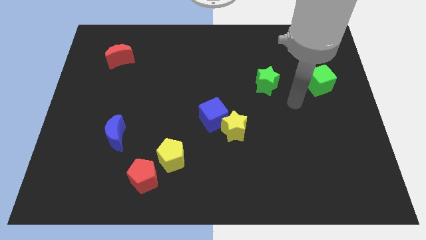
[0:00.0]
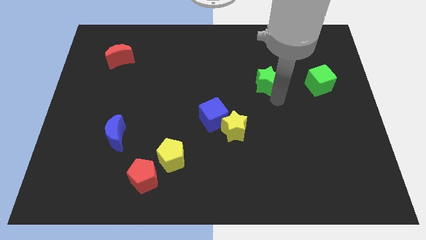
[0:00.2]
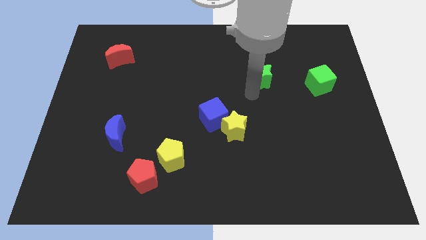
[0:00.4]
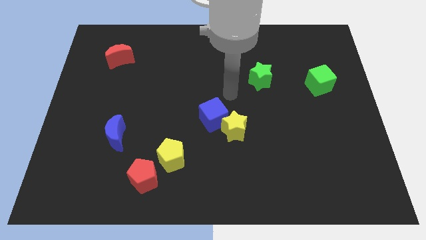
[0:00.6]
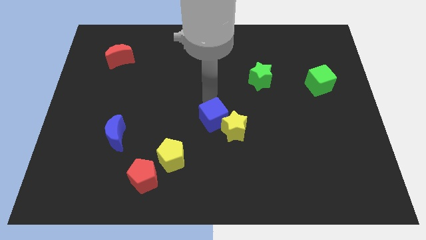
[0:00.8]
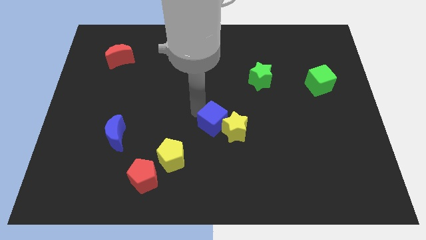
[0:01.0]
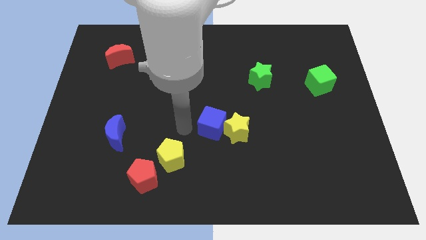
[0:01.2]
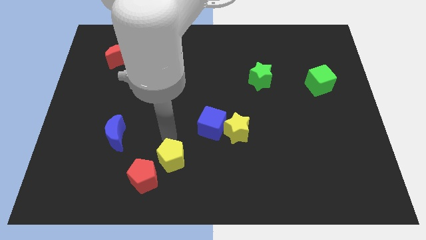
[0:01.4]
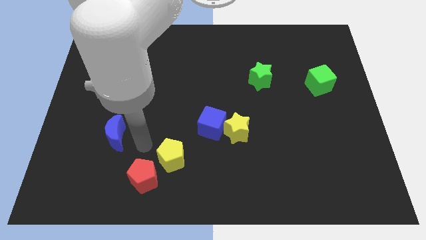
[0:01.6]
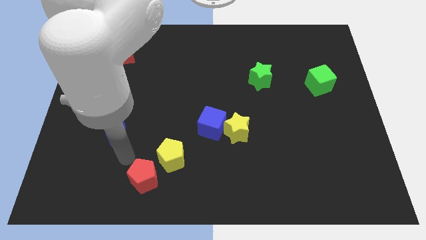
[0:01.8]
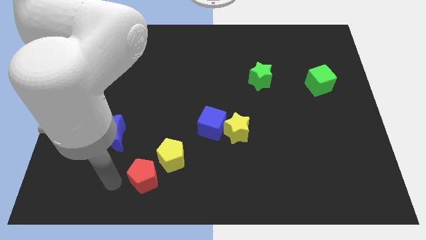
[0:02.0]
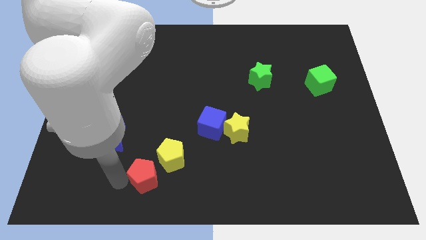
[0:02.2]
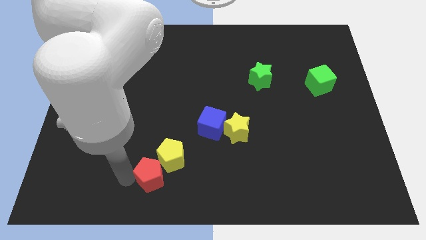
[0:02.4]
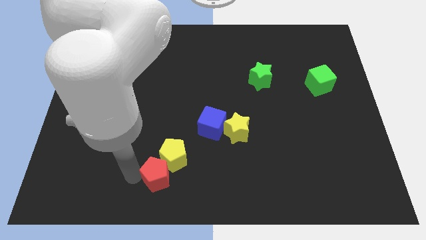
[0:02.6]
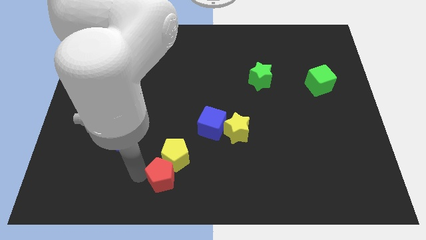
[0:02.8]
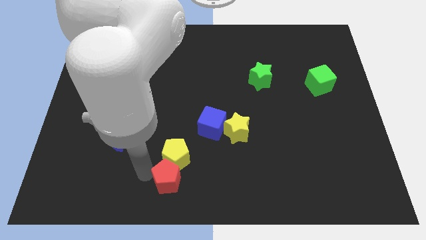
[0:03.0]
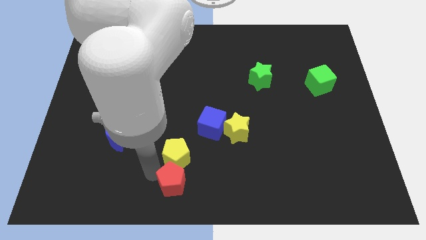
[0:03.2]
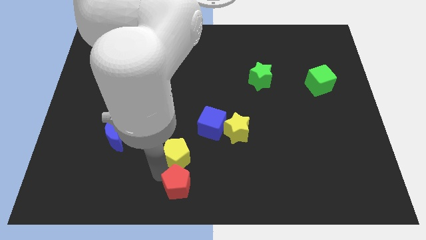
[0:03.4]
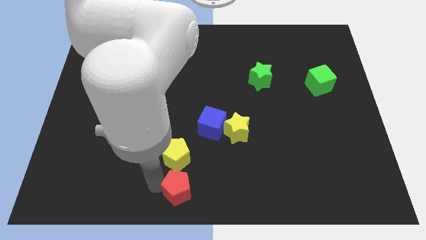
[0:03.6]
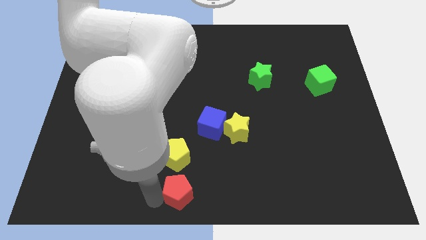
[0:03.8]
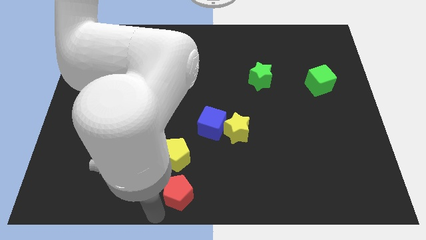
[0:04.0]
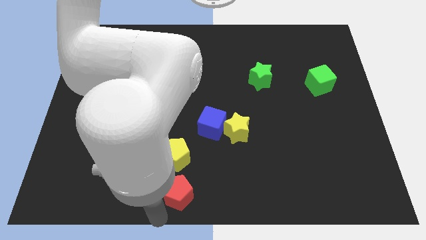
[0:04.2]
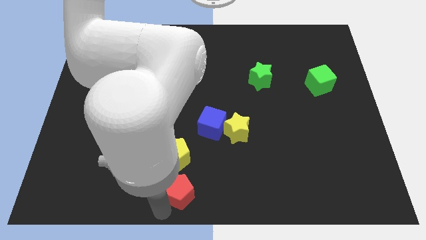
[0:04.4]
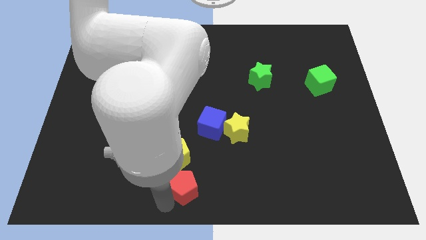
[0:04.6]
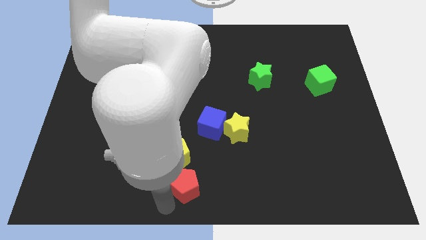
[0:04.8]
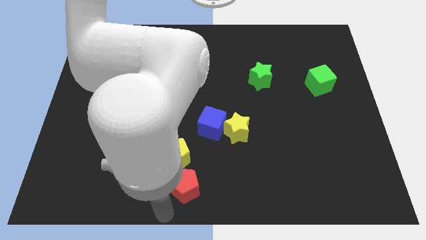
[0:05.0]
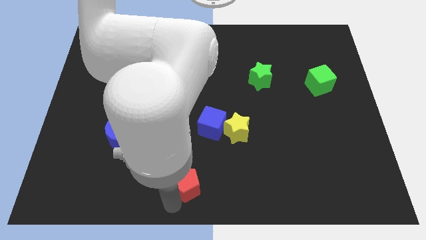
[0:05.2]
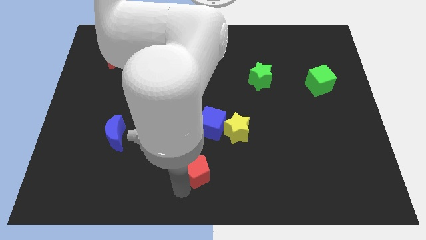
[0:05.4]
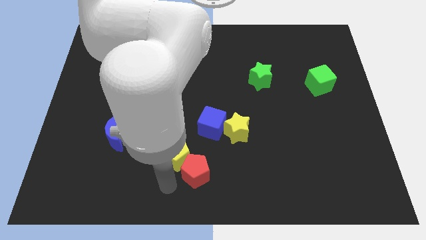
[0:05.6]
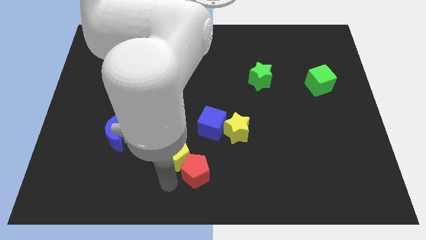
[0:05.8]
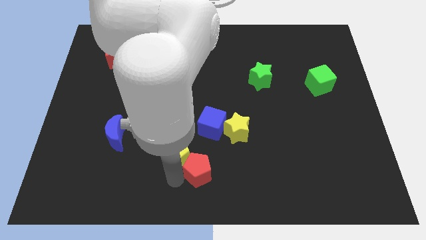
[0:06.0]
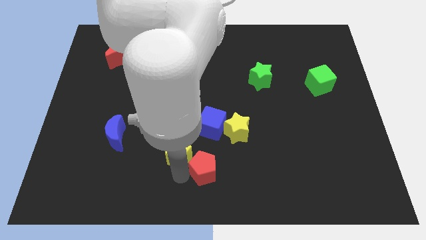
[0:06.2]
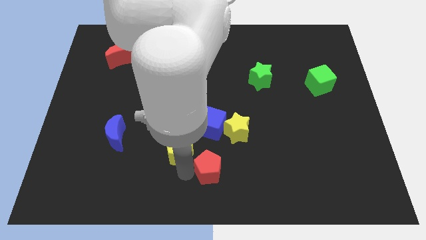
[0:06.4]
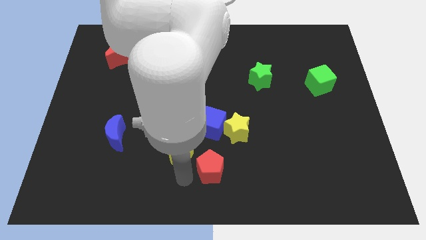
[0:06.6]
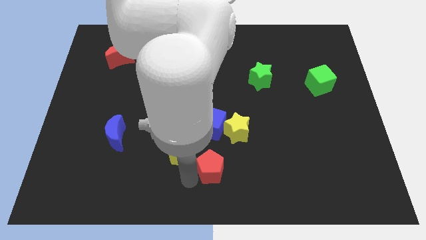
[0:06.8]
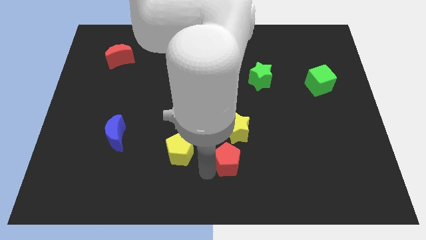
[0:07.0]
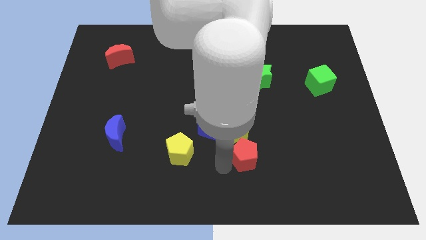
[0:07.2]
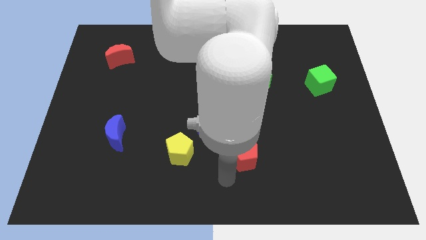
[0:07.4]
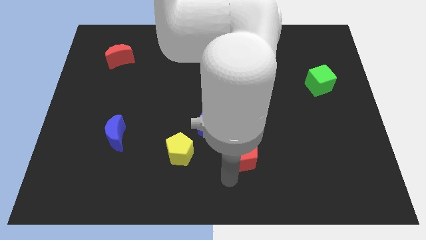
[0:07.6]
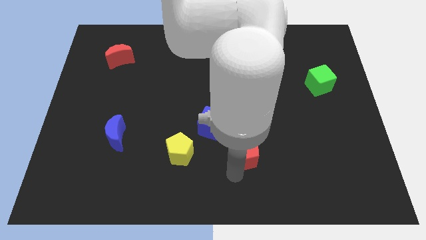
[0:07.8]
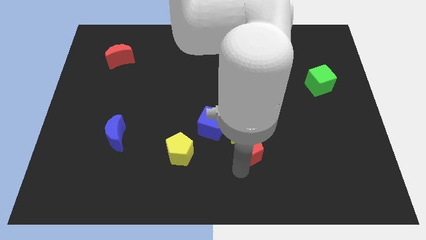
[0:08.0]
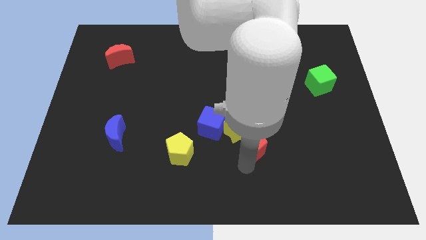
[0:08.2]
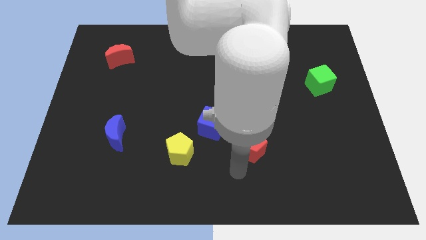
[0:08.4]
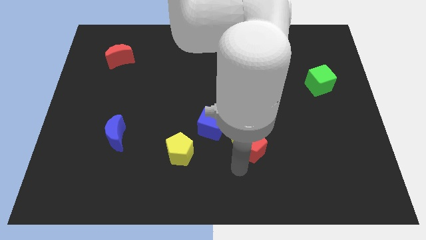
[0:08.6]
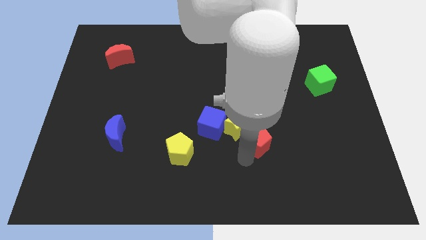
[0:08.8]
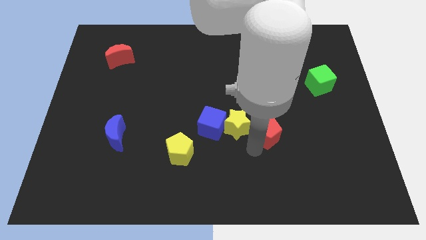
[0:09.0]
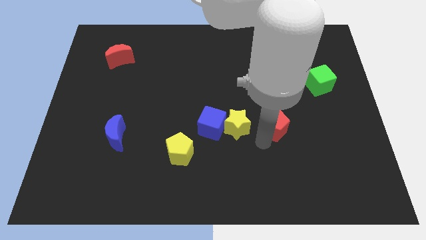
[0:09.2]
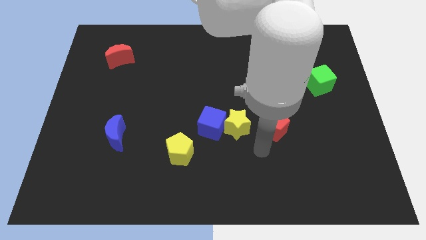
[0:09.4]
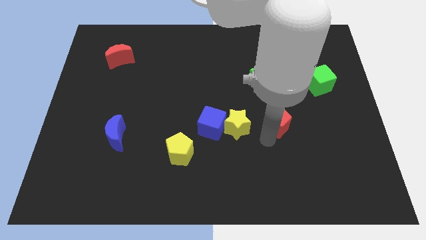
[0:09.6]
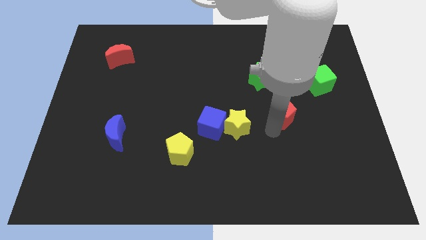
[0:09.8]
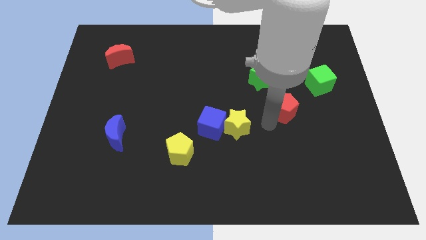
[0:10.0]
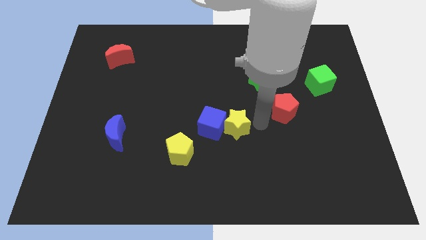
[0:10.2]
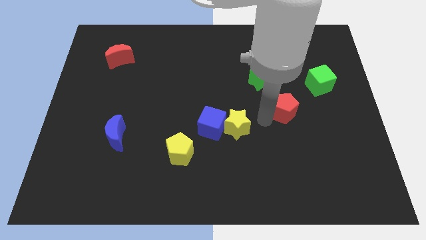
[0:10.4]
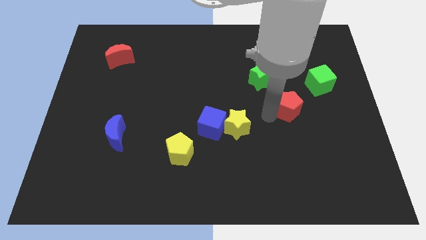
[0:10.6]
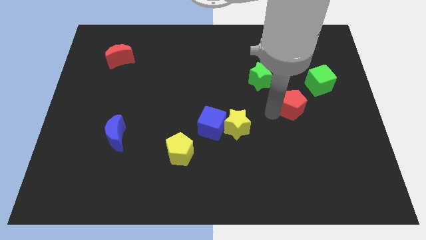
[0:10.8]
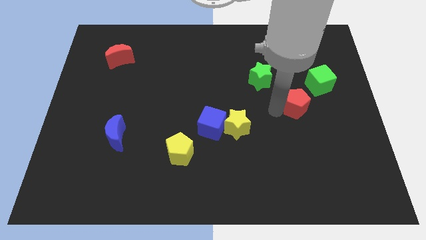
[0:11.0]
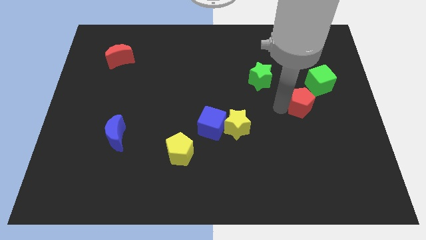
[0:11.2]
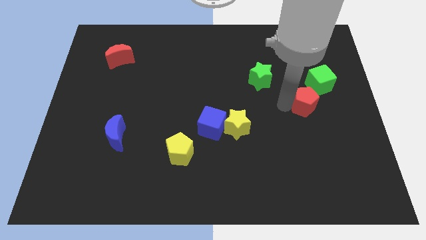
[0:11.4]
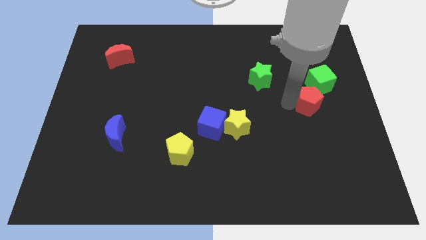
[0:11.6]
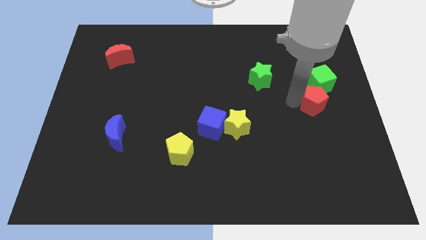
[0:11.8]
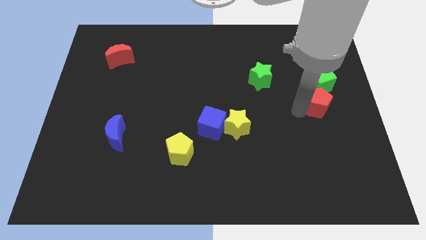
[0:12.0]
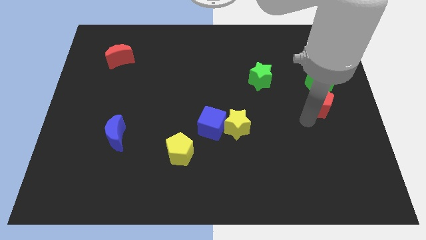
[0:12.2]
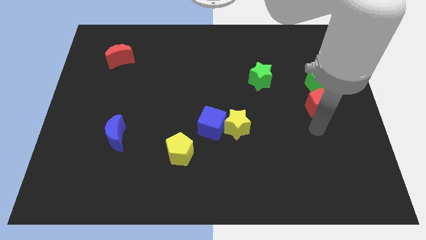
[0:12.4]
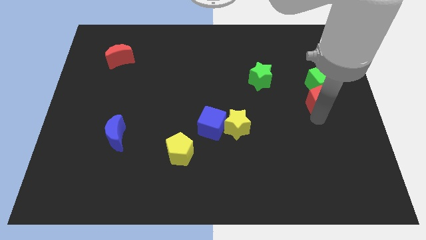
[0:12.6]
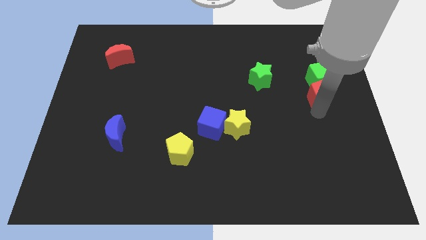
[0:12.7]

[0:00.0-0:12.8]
move the red pentagon towards the green cube

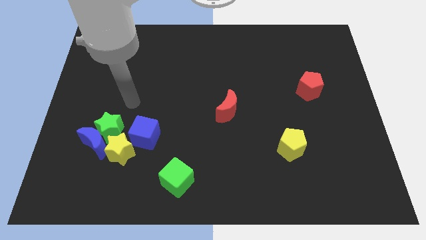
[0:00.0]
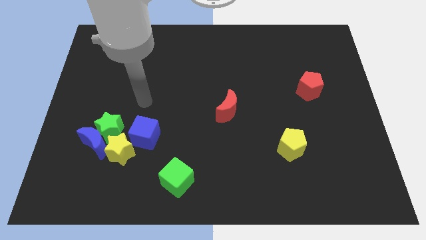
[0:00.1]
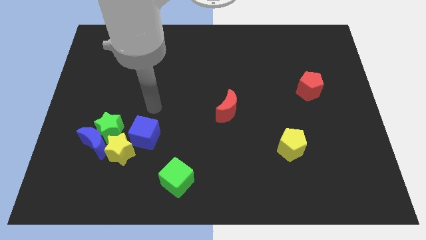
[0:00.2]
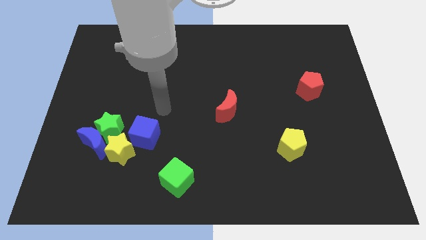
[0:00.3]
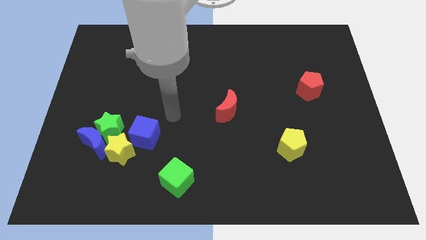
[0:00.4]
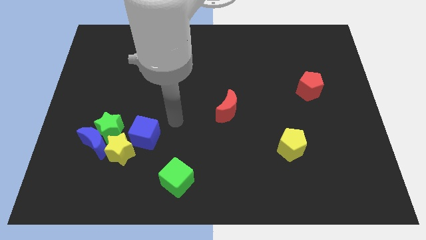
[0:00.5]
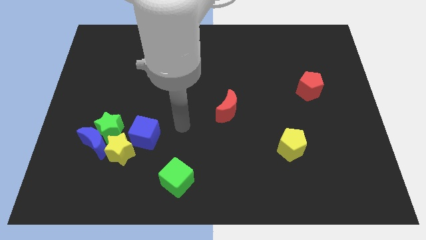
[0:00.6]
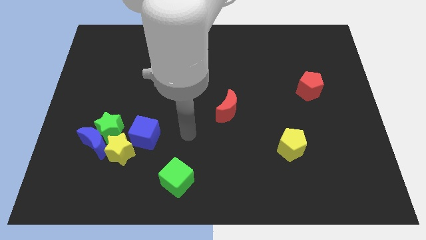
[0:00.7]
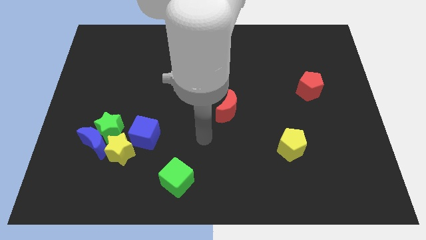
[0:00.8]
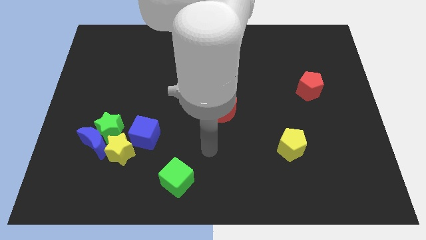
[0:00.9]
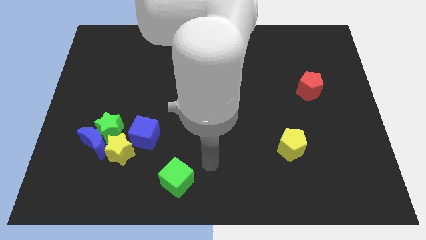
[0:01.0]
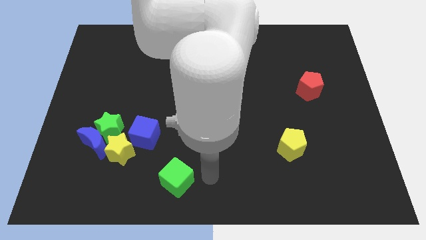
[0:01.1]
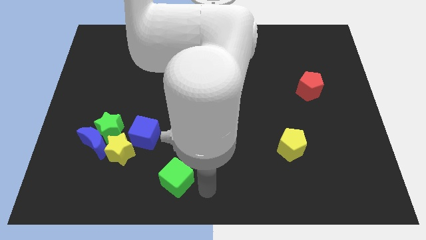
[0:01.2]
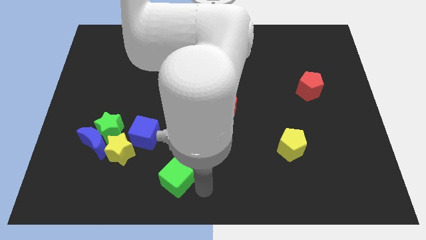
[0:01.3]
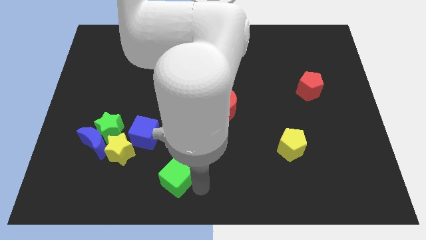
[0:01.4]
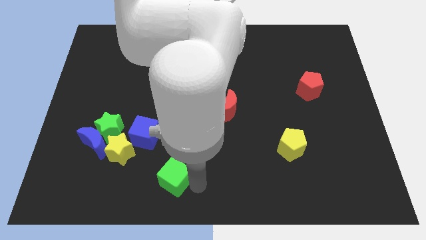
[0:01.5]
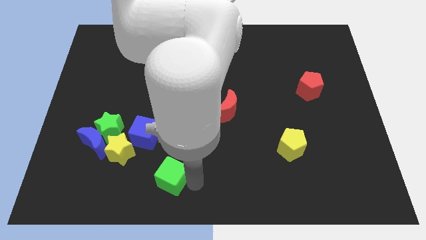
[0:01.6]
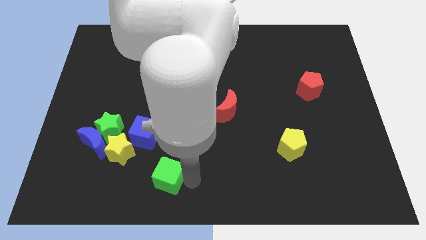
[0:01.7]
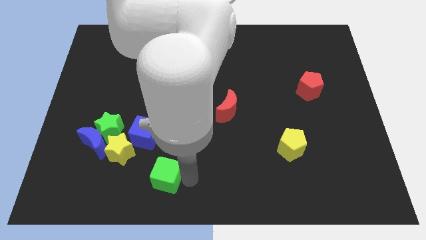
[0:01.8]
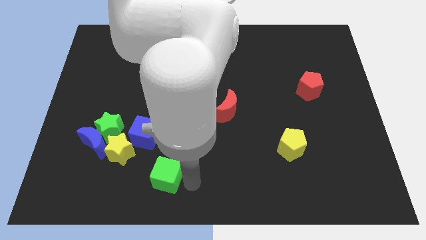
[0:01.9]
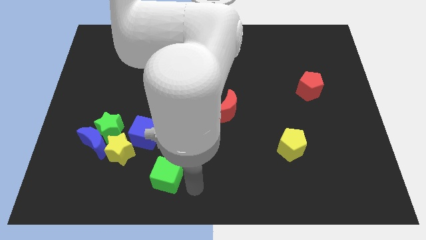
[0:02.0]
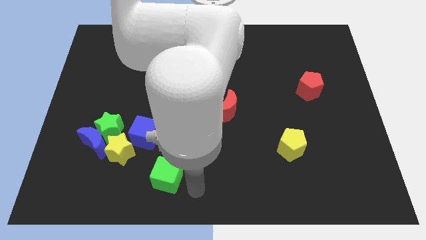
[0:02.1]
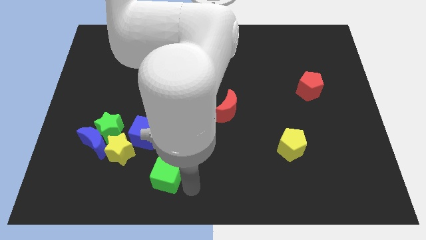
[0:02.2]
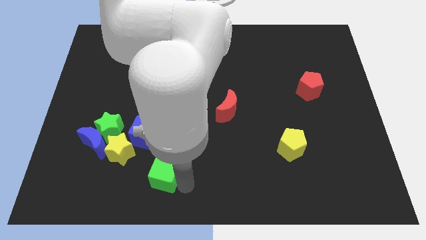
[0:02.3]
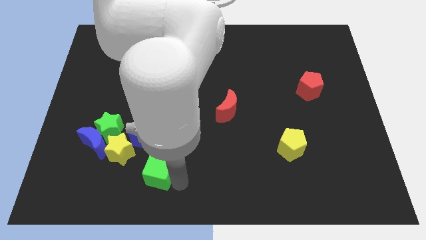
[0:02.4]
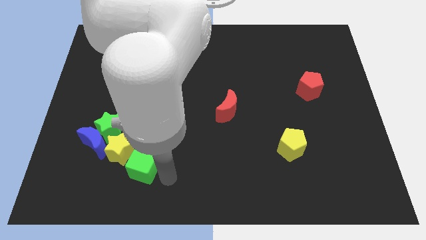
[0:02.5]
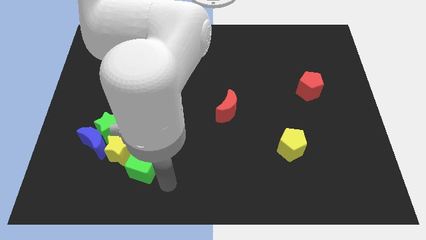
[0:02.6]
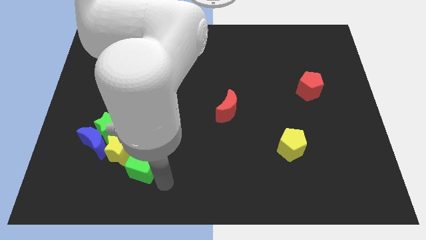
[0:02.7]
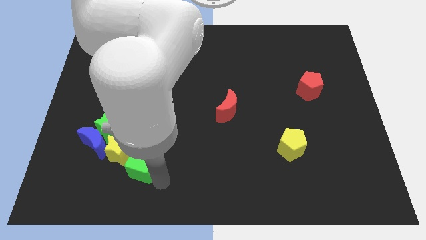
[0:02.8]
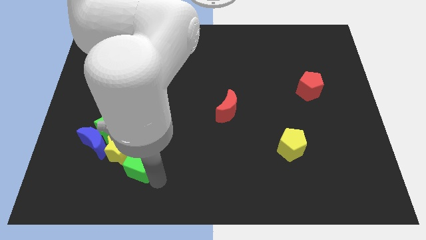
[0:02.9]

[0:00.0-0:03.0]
push the green cube next to the yellow star
